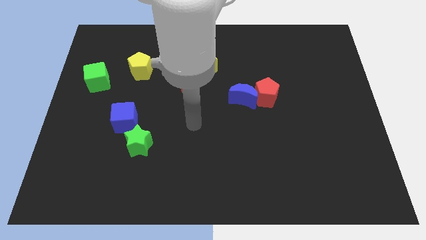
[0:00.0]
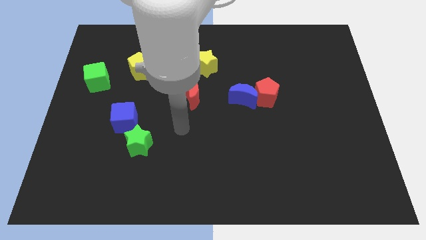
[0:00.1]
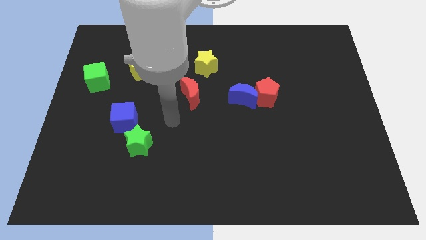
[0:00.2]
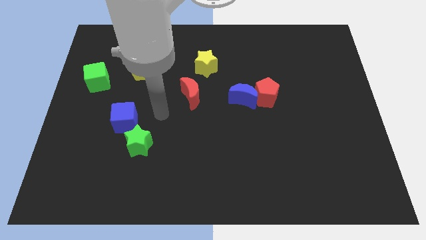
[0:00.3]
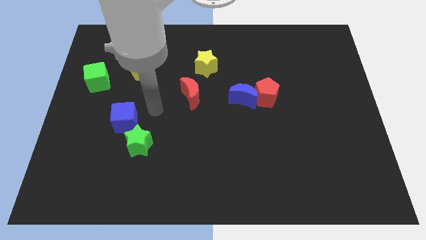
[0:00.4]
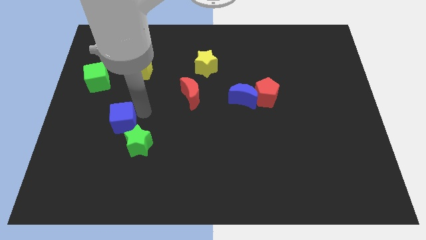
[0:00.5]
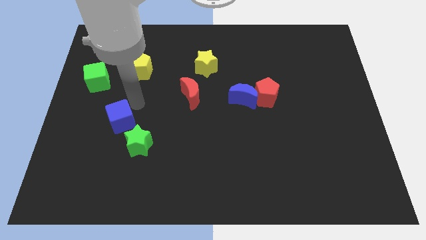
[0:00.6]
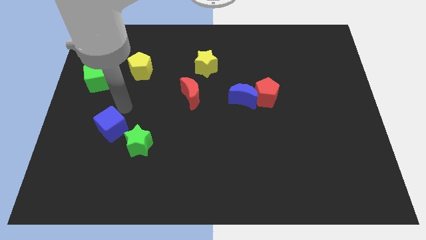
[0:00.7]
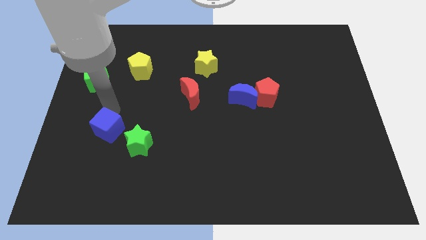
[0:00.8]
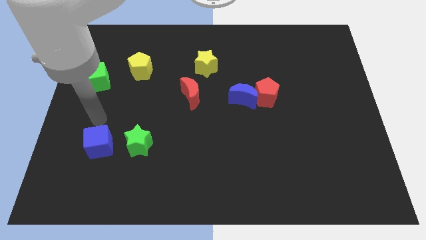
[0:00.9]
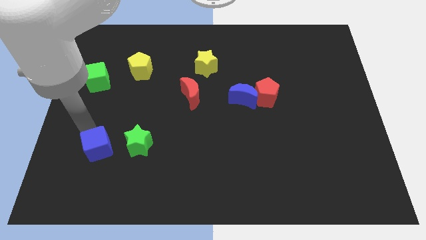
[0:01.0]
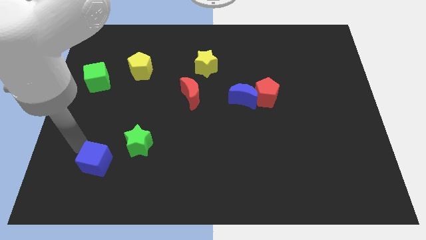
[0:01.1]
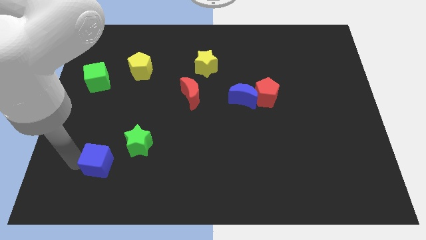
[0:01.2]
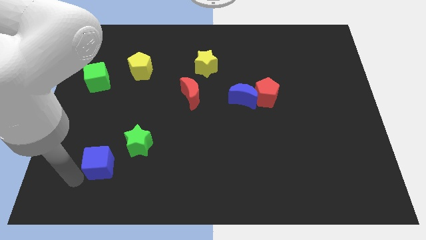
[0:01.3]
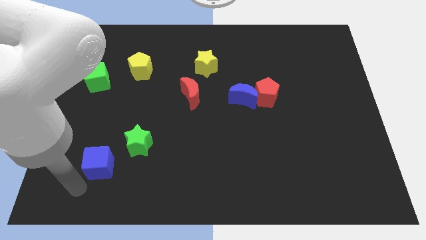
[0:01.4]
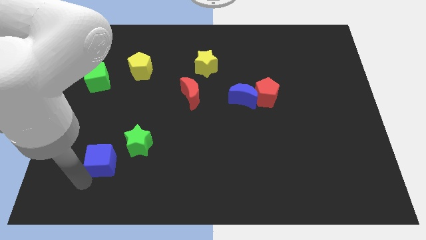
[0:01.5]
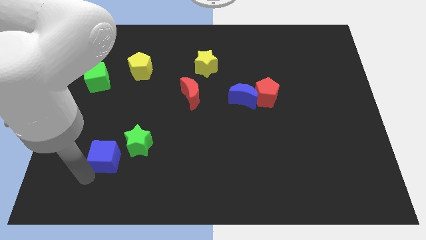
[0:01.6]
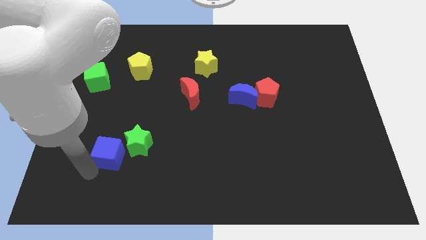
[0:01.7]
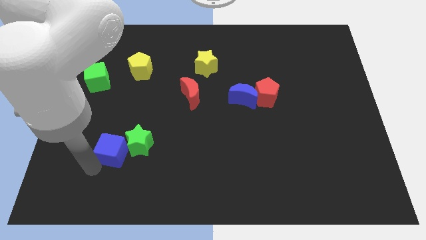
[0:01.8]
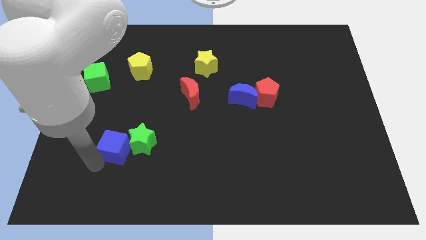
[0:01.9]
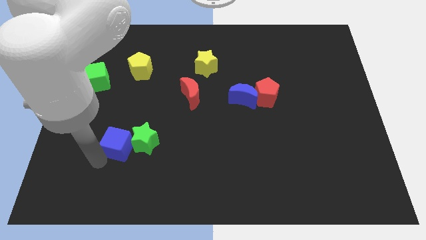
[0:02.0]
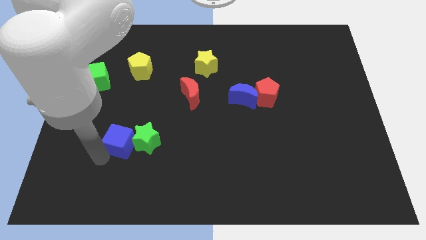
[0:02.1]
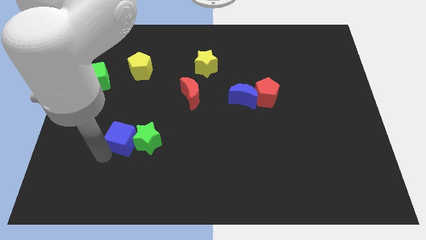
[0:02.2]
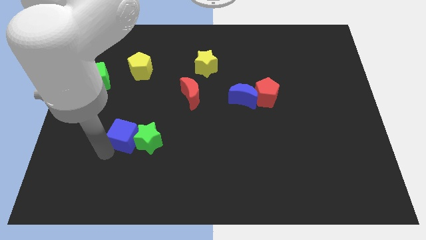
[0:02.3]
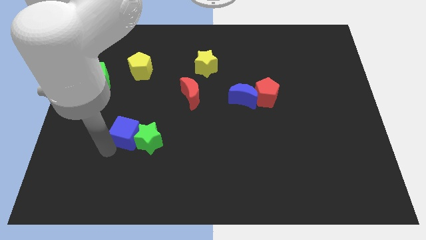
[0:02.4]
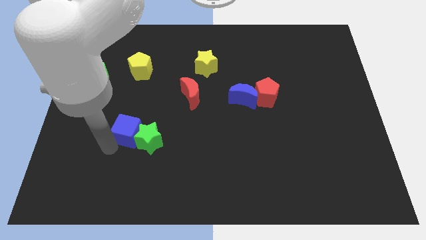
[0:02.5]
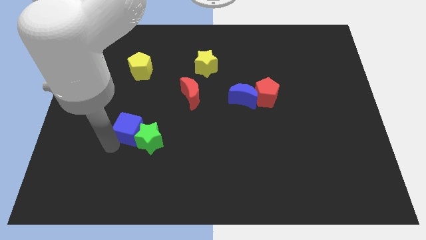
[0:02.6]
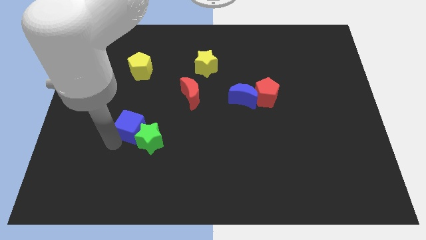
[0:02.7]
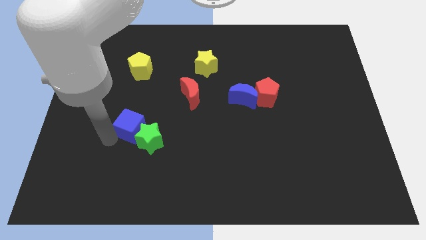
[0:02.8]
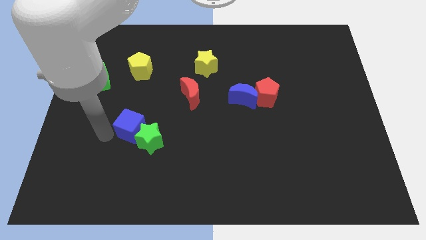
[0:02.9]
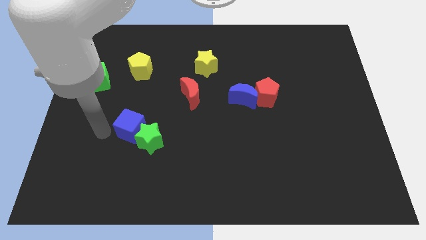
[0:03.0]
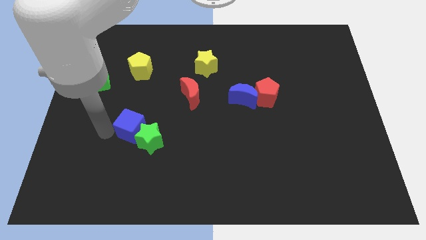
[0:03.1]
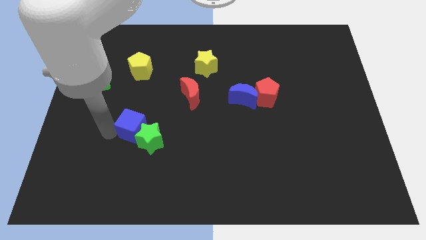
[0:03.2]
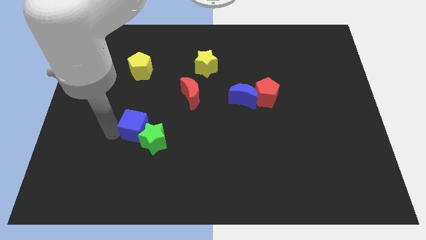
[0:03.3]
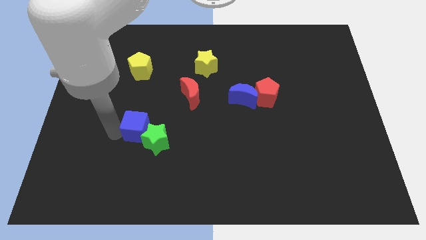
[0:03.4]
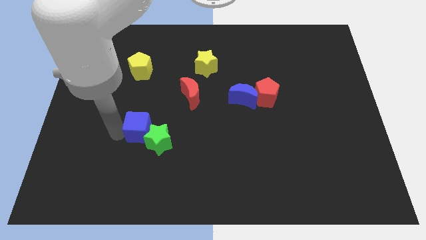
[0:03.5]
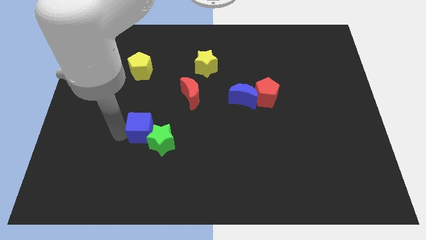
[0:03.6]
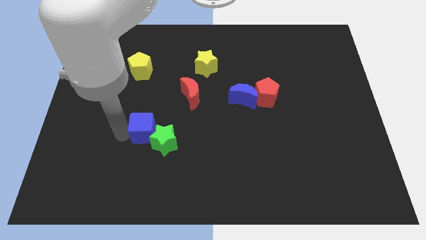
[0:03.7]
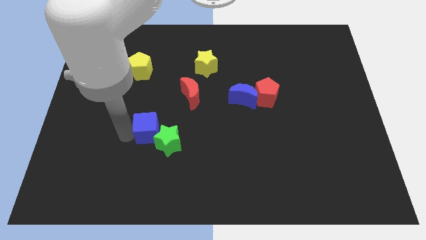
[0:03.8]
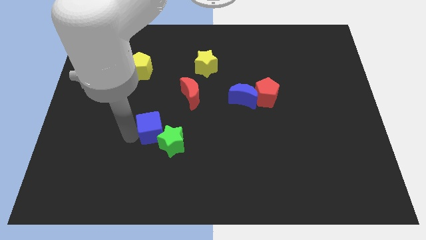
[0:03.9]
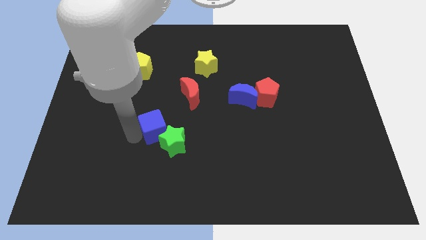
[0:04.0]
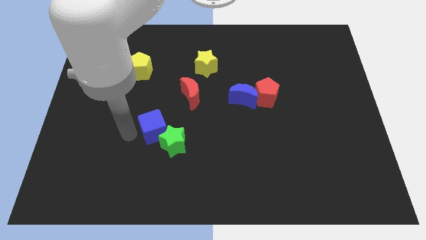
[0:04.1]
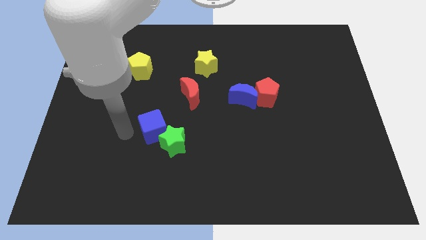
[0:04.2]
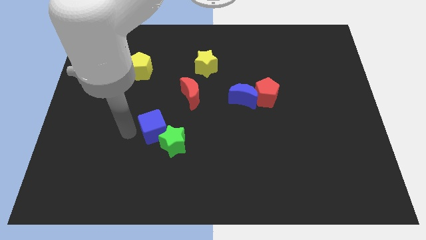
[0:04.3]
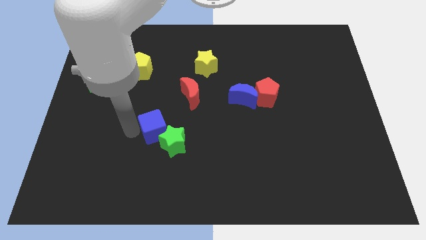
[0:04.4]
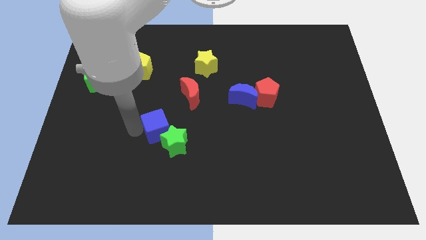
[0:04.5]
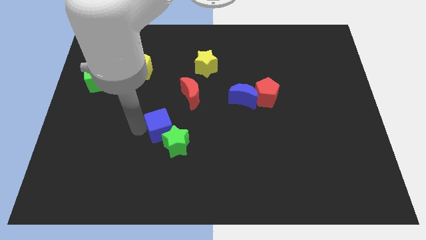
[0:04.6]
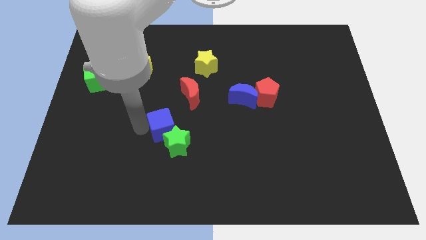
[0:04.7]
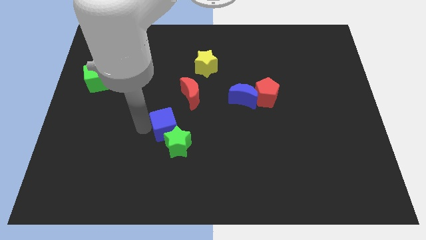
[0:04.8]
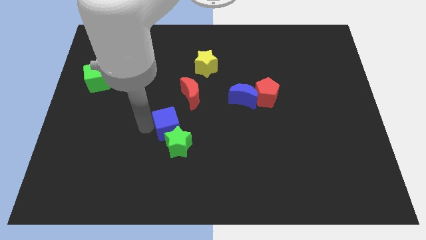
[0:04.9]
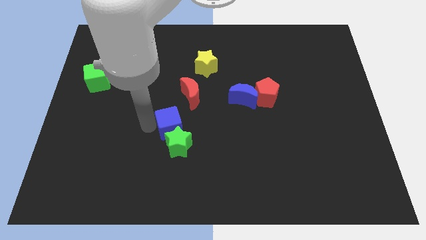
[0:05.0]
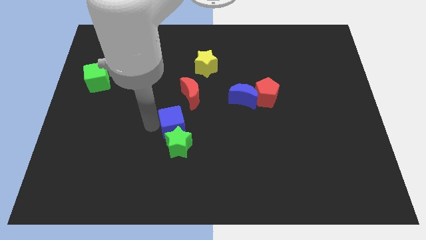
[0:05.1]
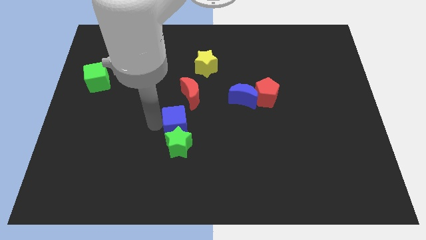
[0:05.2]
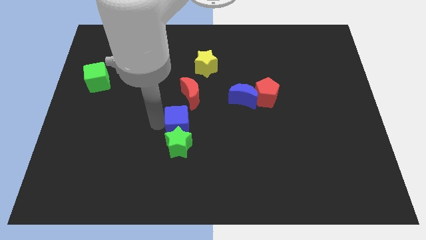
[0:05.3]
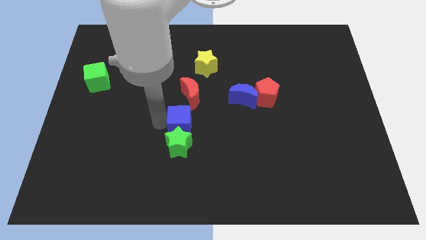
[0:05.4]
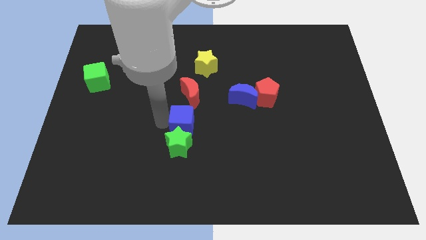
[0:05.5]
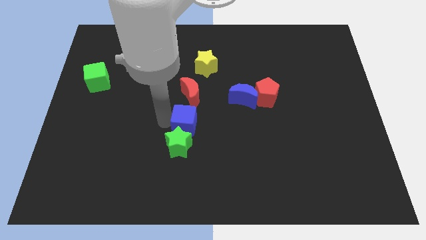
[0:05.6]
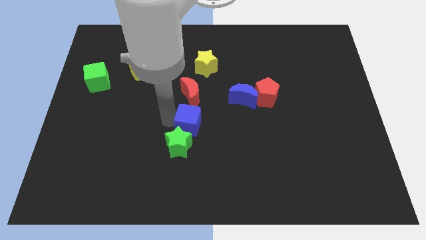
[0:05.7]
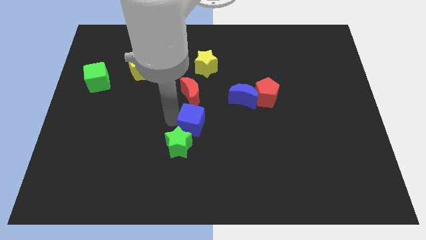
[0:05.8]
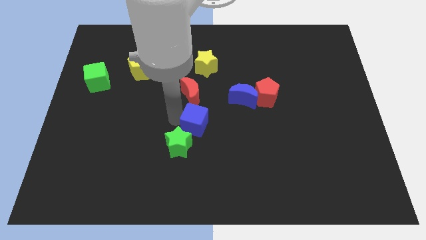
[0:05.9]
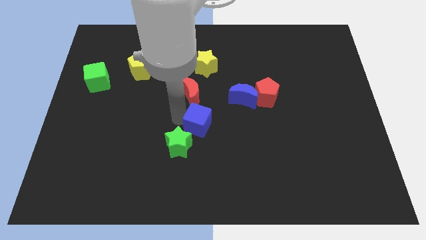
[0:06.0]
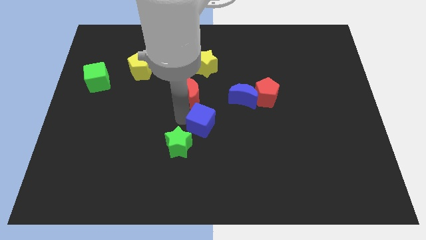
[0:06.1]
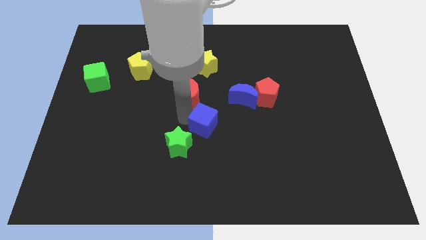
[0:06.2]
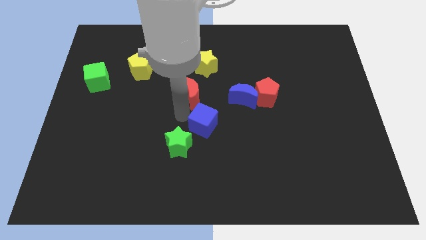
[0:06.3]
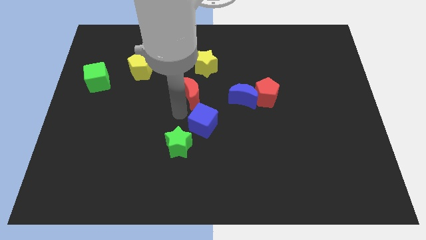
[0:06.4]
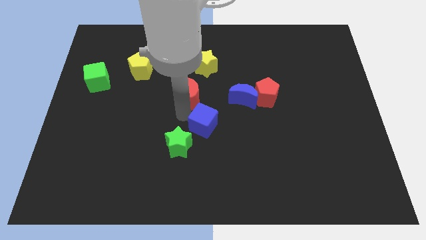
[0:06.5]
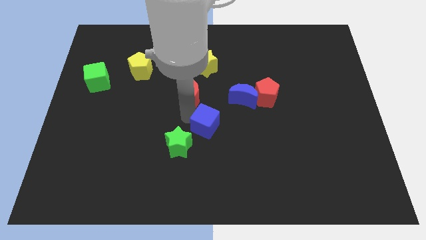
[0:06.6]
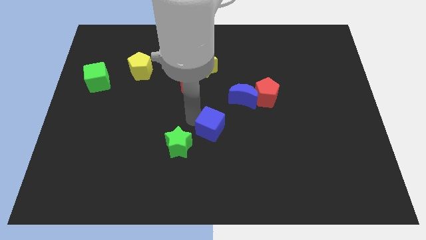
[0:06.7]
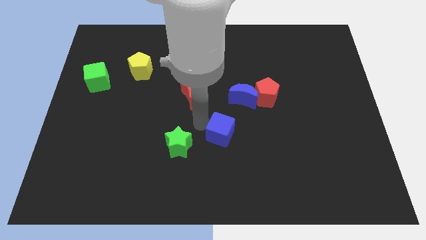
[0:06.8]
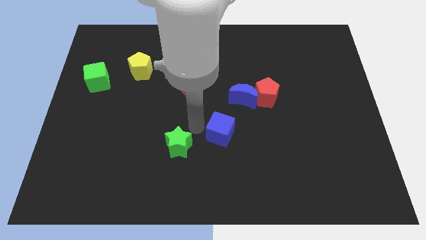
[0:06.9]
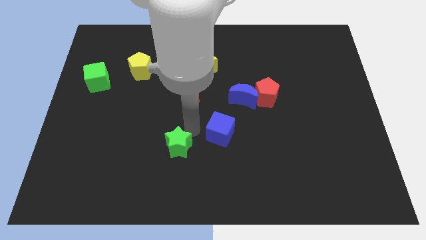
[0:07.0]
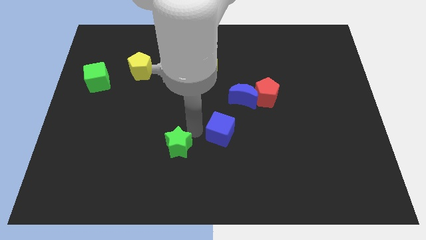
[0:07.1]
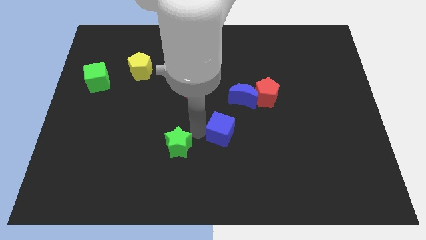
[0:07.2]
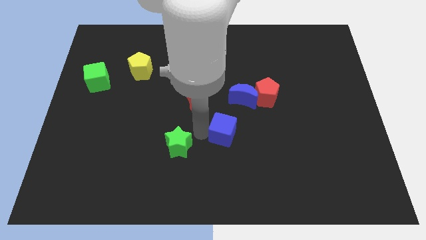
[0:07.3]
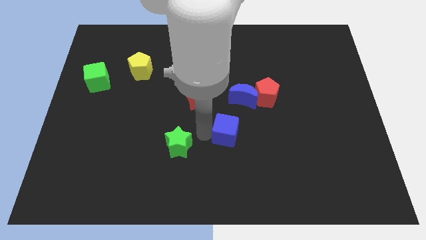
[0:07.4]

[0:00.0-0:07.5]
put the blue cube to the bottom side of the blue moon

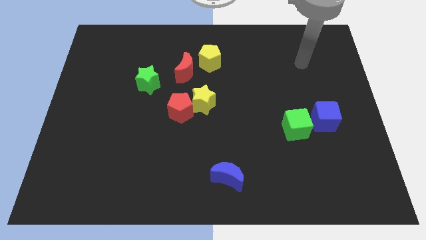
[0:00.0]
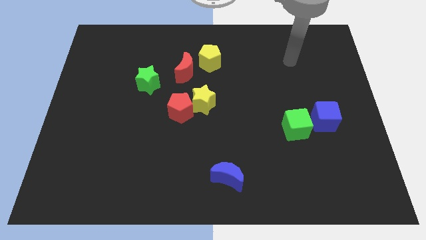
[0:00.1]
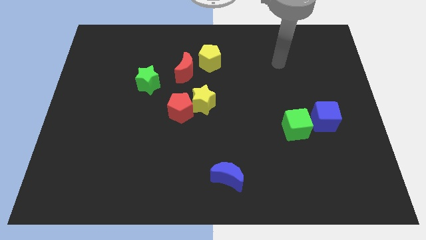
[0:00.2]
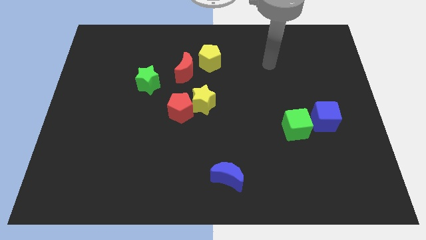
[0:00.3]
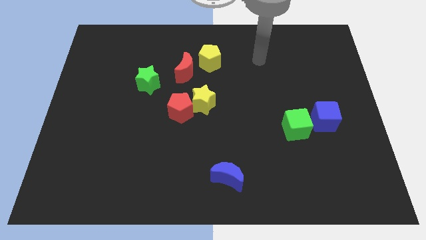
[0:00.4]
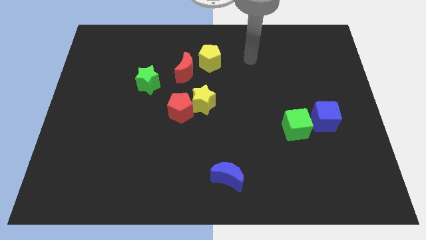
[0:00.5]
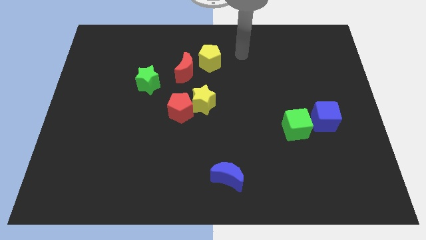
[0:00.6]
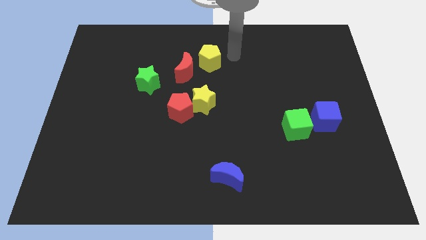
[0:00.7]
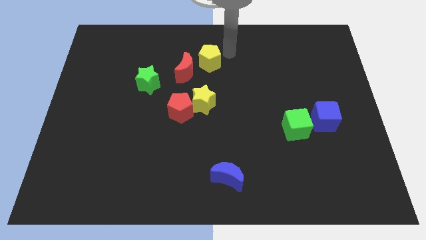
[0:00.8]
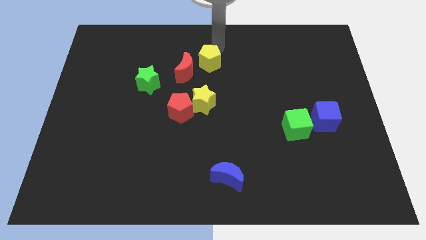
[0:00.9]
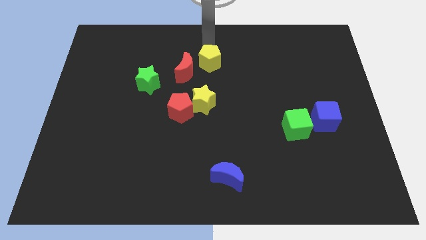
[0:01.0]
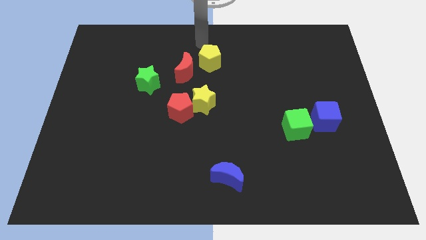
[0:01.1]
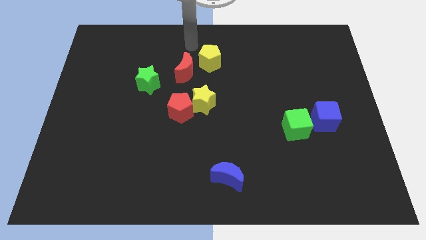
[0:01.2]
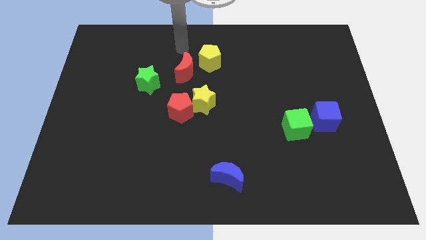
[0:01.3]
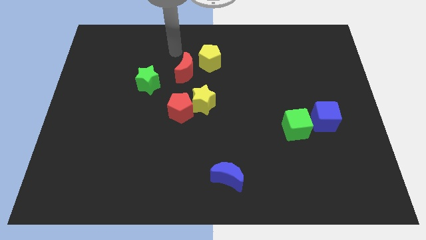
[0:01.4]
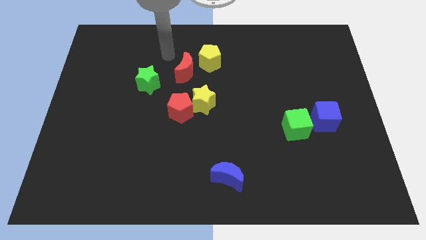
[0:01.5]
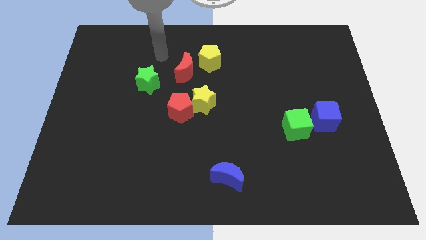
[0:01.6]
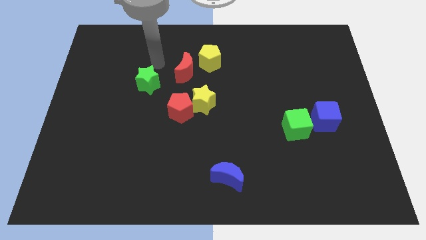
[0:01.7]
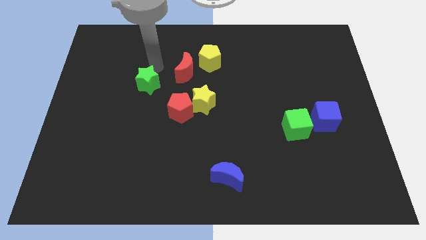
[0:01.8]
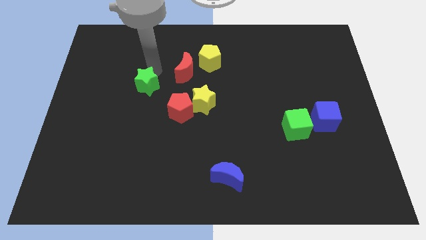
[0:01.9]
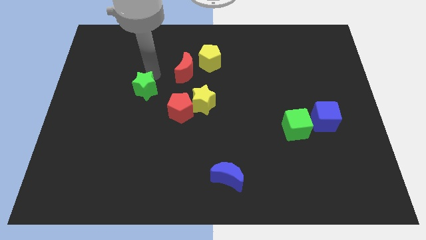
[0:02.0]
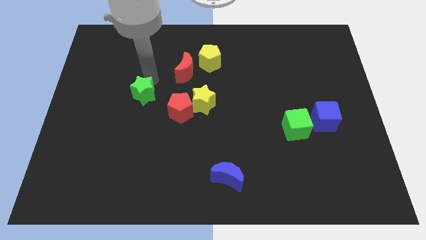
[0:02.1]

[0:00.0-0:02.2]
put the green star left of the red pentagon
